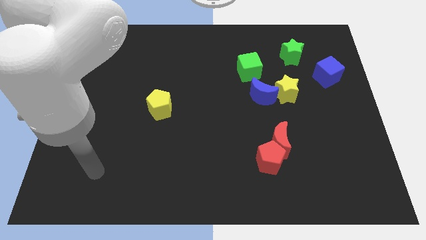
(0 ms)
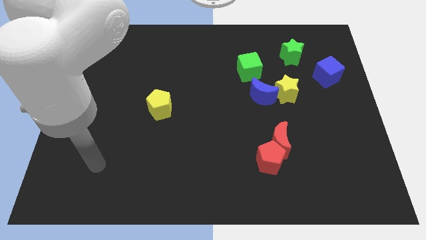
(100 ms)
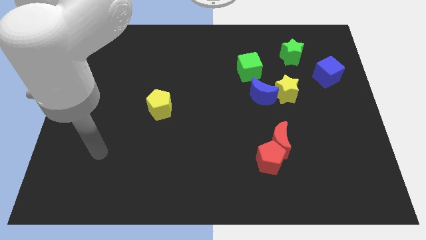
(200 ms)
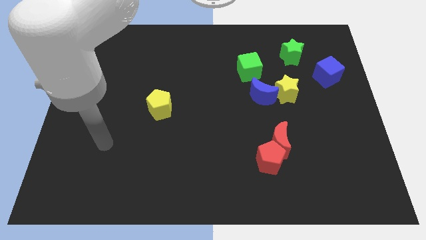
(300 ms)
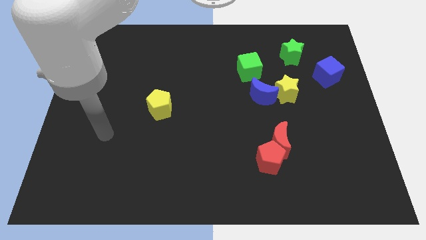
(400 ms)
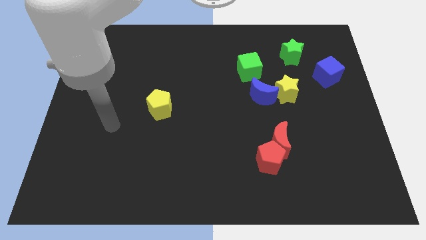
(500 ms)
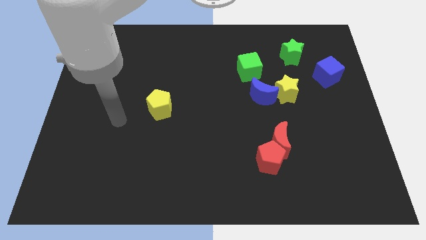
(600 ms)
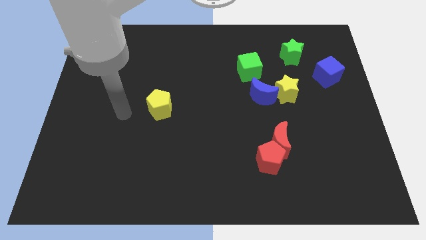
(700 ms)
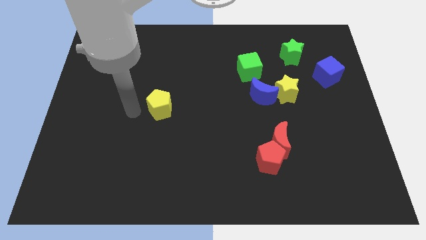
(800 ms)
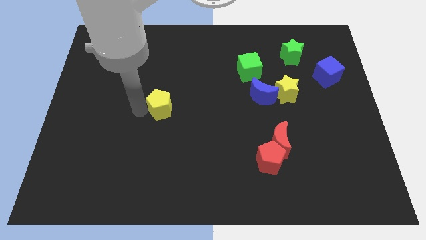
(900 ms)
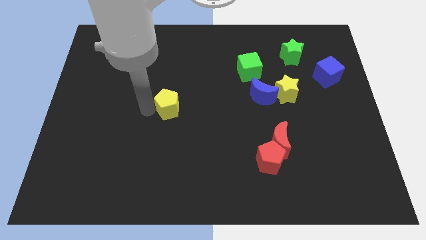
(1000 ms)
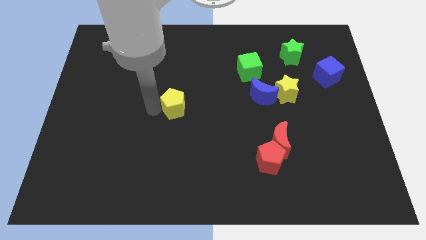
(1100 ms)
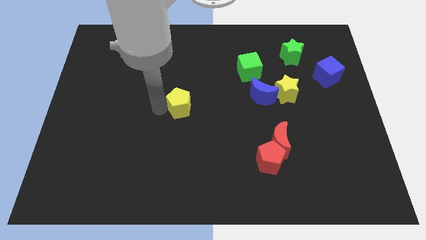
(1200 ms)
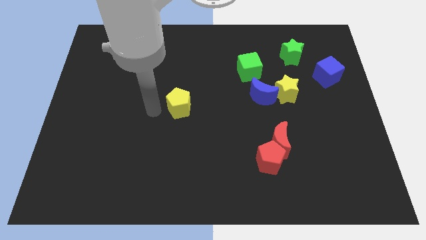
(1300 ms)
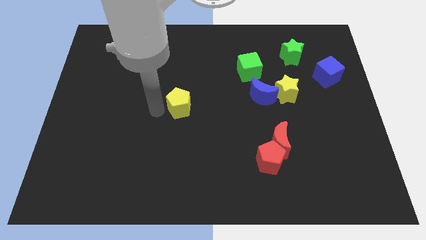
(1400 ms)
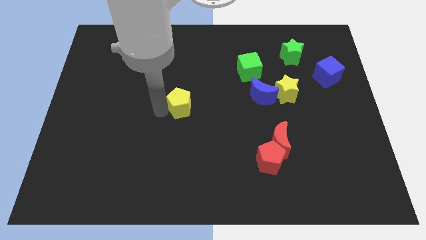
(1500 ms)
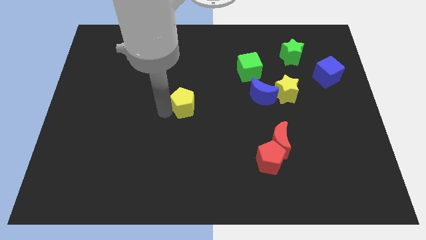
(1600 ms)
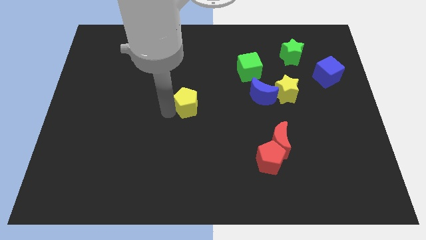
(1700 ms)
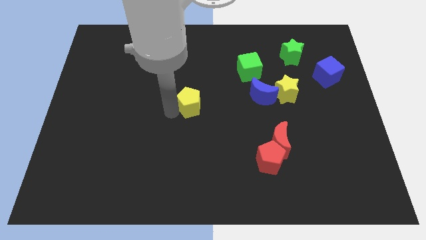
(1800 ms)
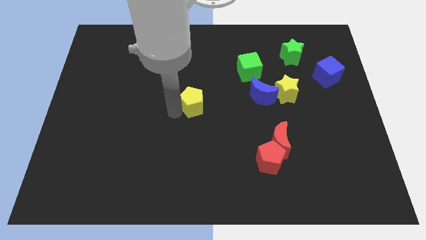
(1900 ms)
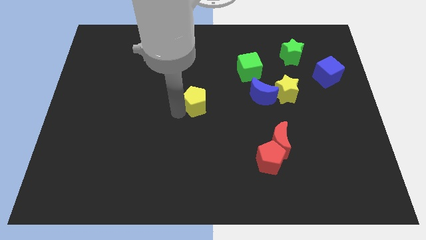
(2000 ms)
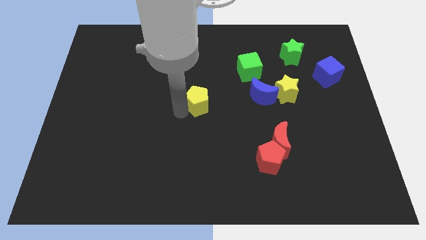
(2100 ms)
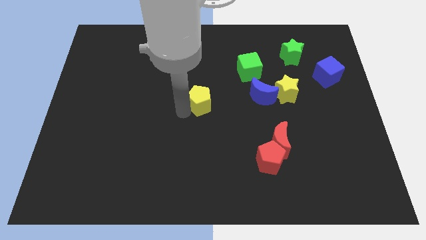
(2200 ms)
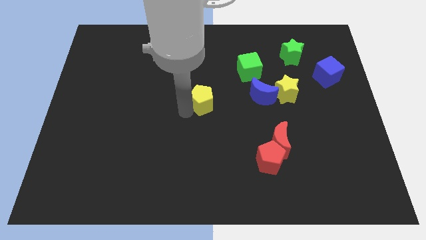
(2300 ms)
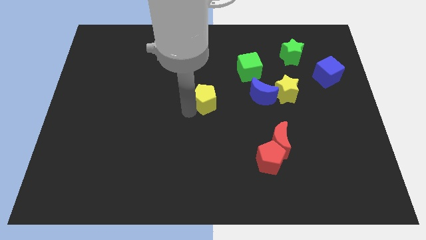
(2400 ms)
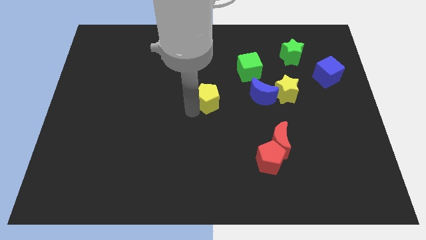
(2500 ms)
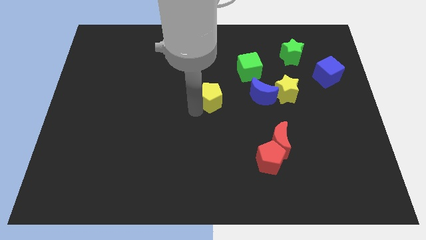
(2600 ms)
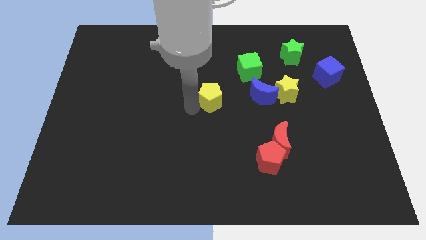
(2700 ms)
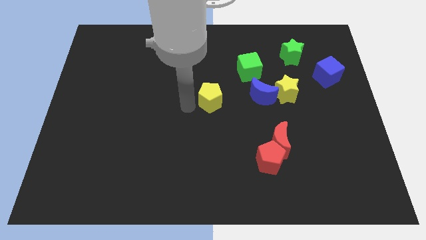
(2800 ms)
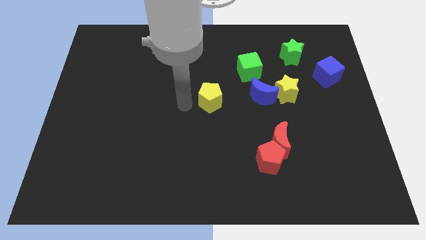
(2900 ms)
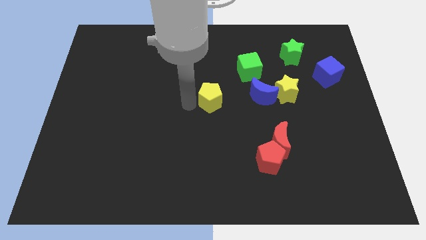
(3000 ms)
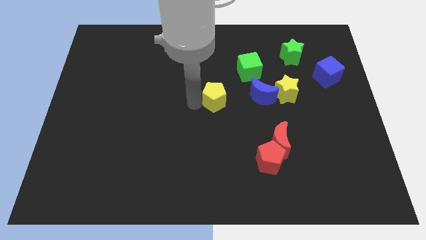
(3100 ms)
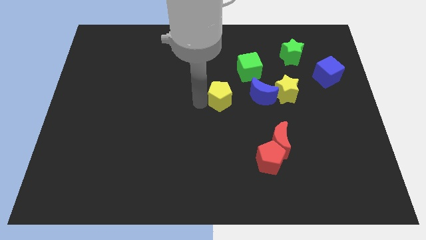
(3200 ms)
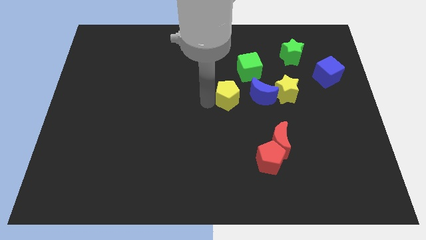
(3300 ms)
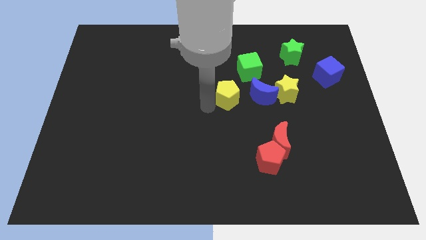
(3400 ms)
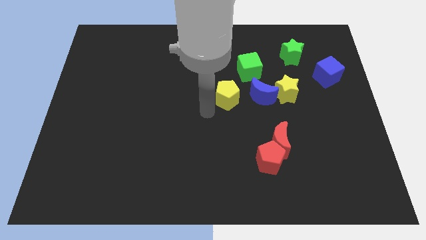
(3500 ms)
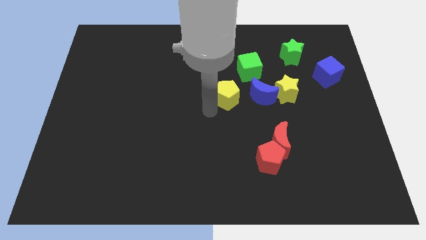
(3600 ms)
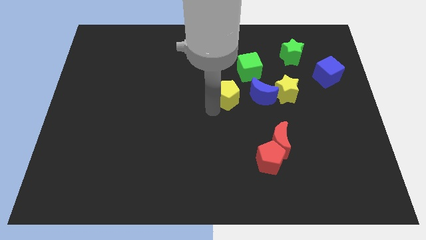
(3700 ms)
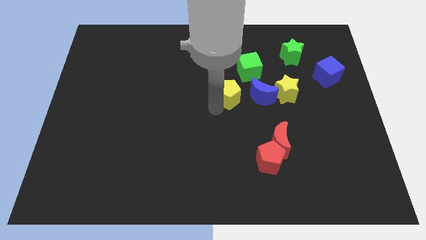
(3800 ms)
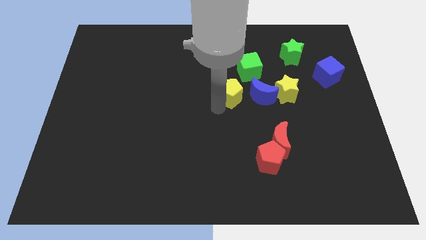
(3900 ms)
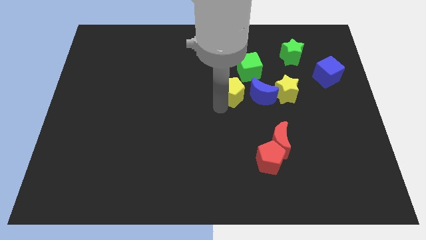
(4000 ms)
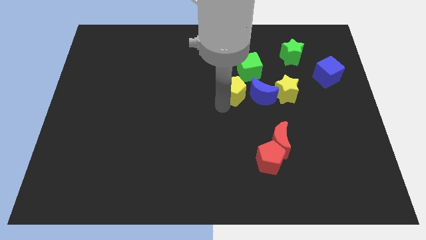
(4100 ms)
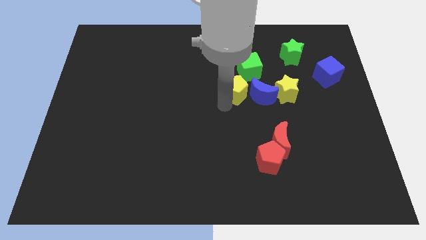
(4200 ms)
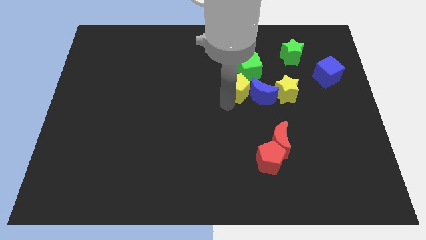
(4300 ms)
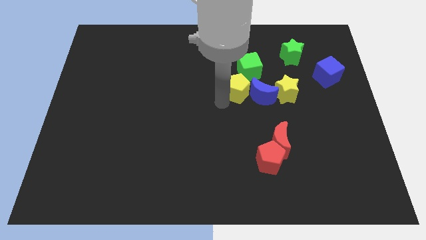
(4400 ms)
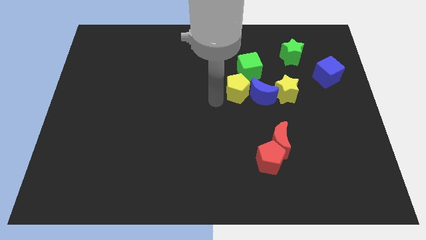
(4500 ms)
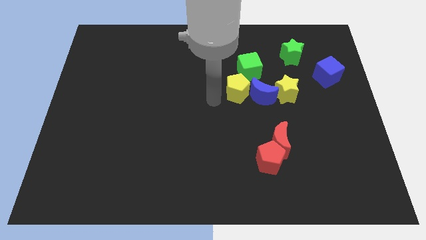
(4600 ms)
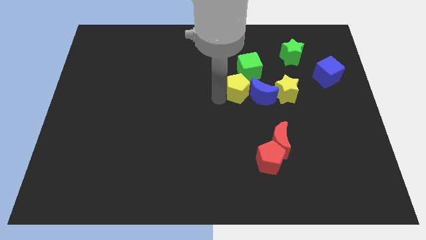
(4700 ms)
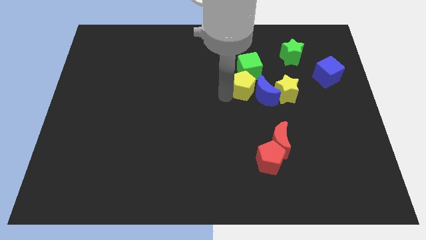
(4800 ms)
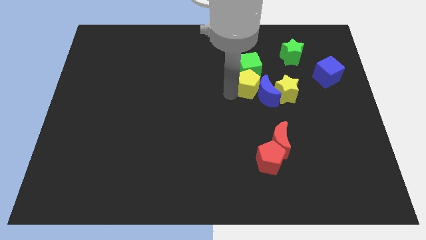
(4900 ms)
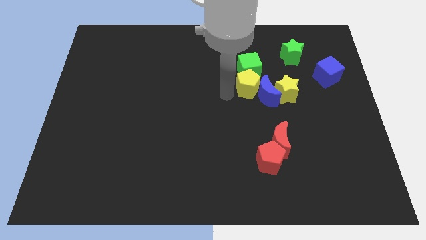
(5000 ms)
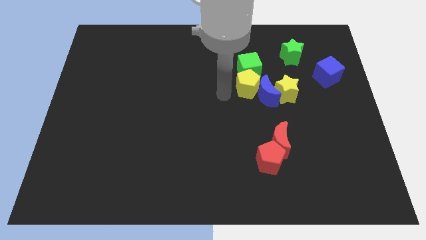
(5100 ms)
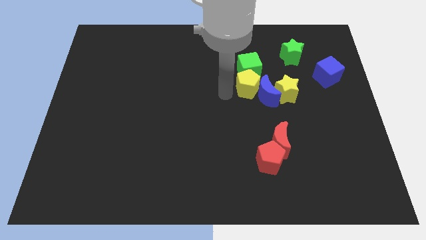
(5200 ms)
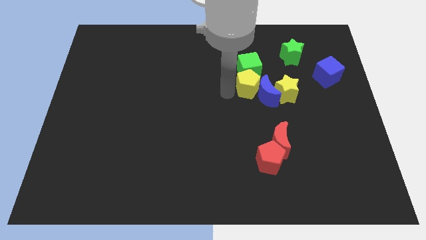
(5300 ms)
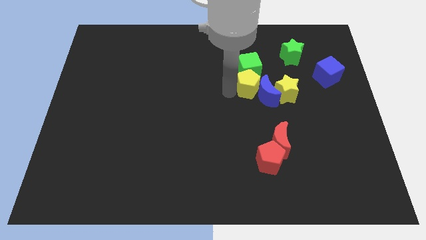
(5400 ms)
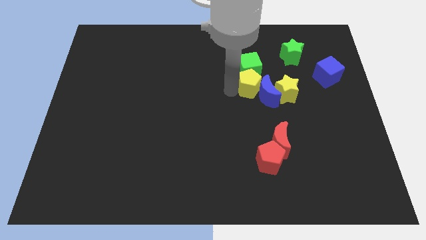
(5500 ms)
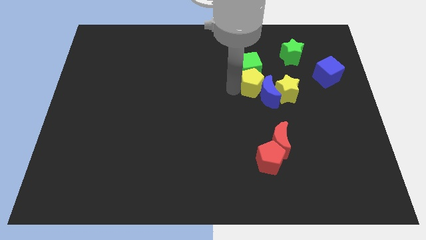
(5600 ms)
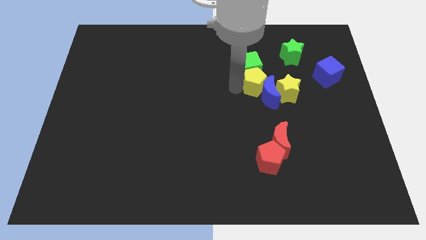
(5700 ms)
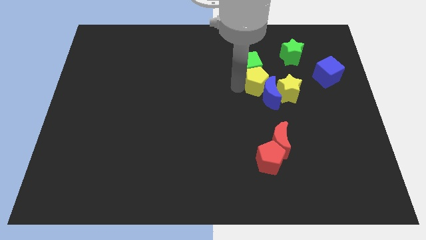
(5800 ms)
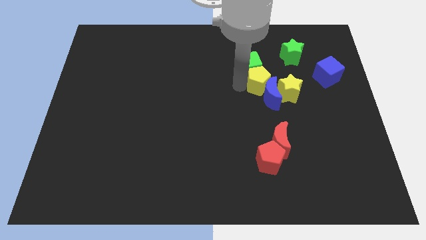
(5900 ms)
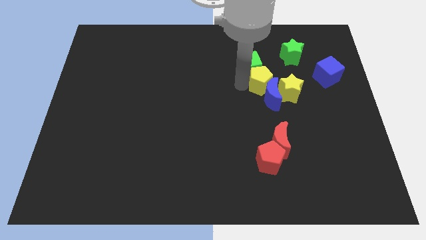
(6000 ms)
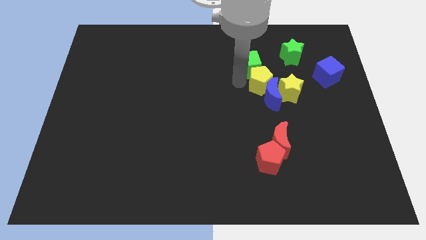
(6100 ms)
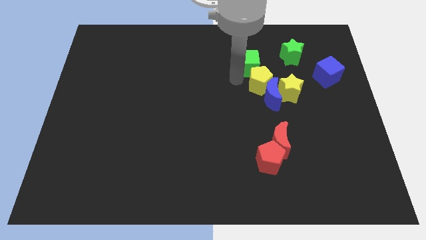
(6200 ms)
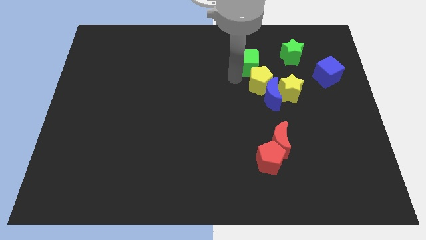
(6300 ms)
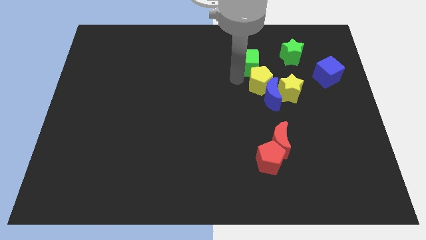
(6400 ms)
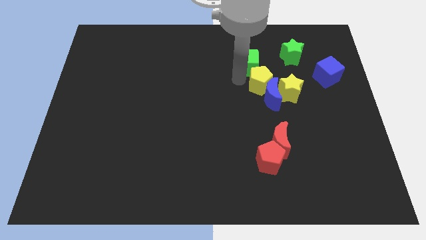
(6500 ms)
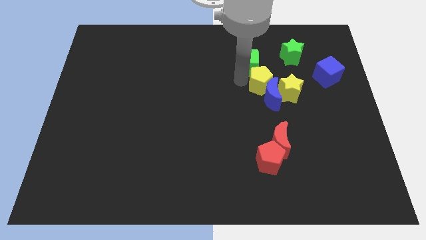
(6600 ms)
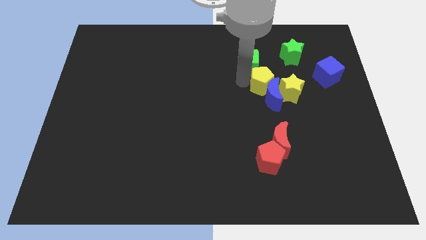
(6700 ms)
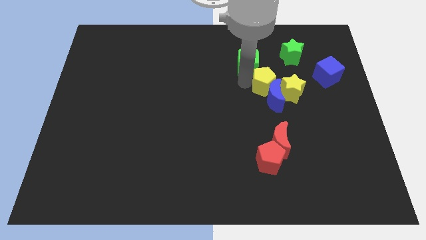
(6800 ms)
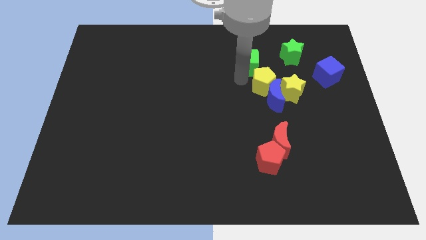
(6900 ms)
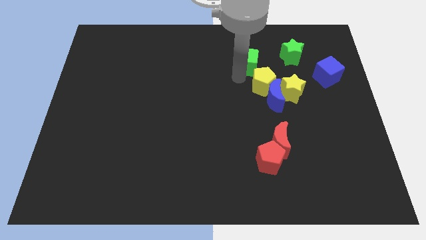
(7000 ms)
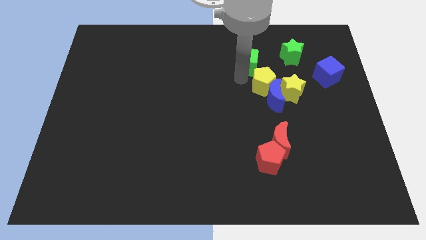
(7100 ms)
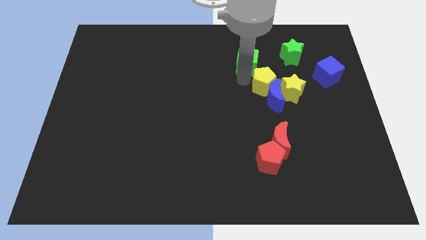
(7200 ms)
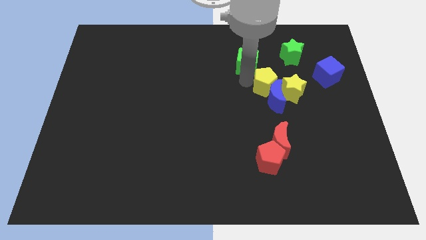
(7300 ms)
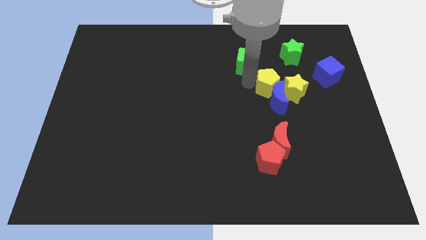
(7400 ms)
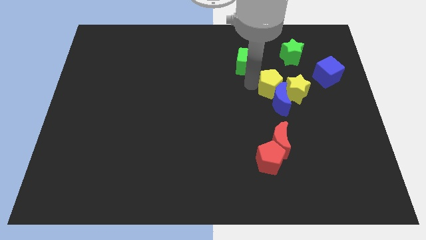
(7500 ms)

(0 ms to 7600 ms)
put the yellow pentagon to the yellow star

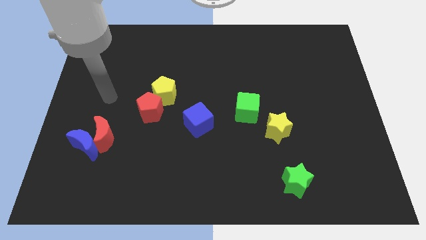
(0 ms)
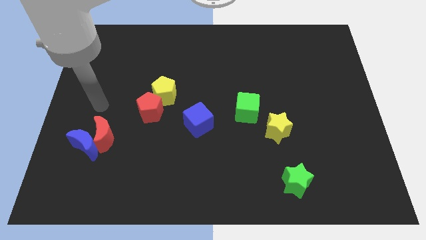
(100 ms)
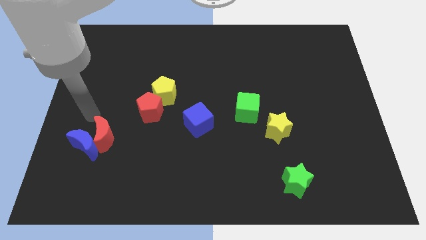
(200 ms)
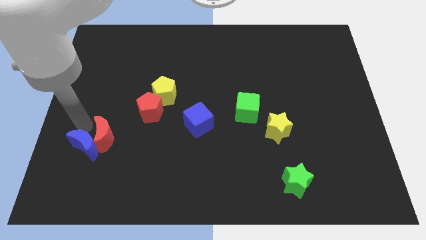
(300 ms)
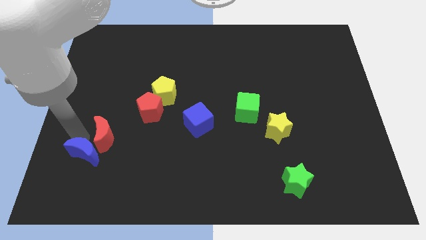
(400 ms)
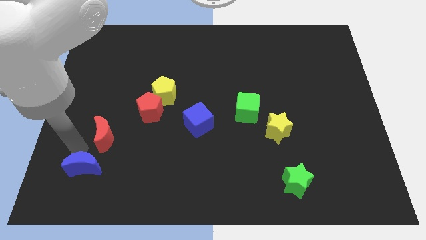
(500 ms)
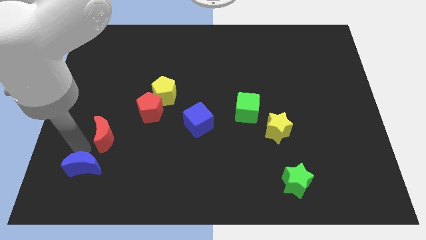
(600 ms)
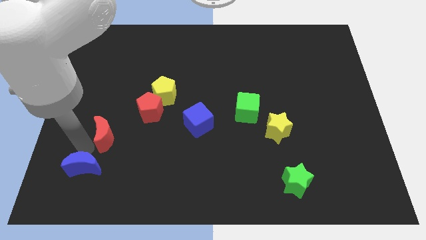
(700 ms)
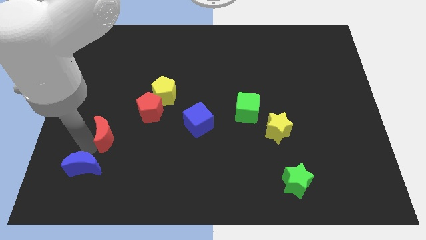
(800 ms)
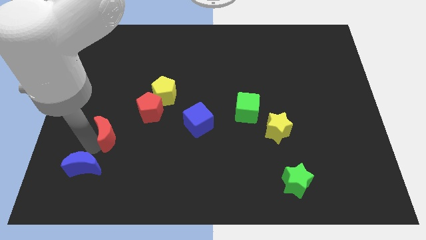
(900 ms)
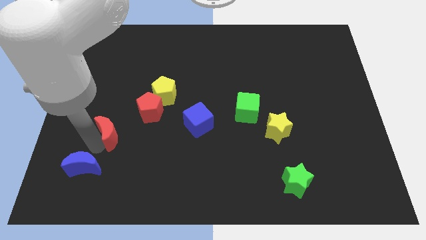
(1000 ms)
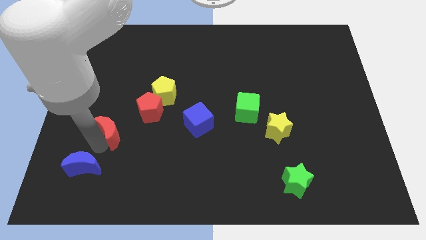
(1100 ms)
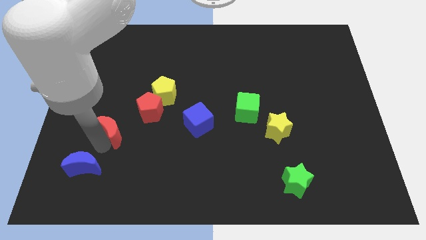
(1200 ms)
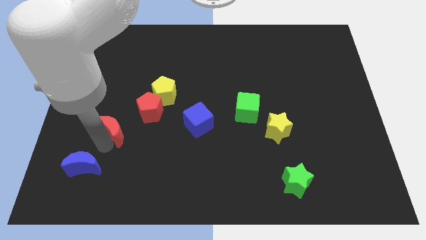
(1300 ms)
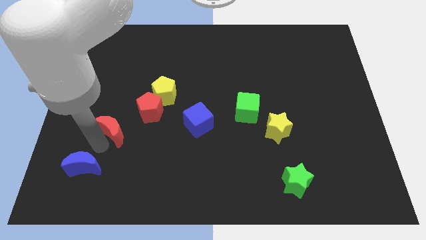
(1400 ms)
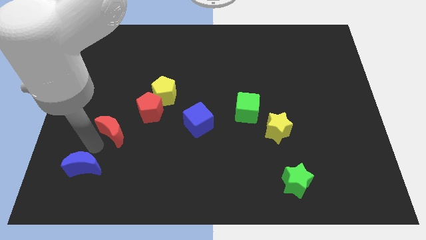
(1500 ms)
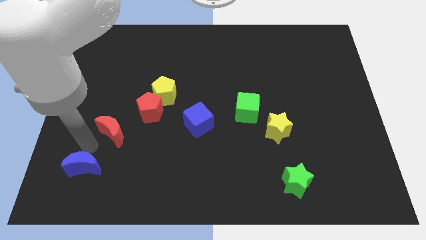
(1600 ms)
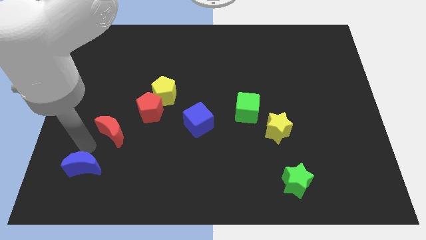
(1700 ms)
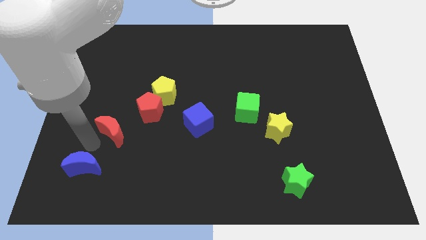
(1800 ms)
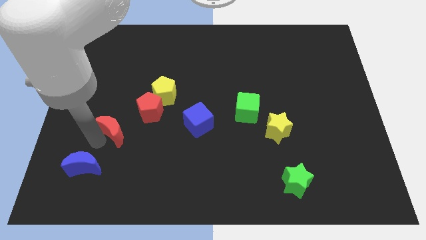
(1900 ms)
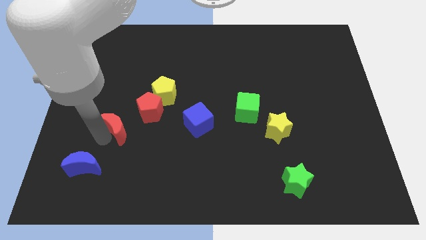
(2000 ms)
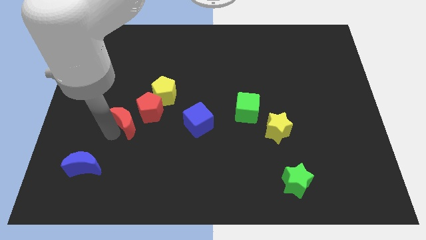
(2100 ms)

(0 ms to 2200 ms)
slide the red moon towards the red pentagon
